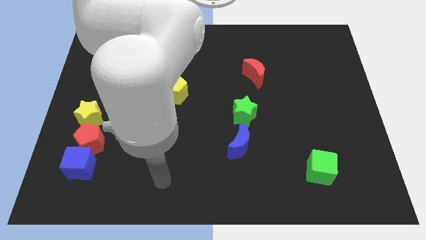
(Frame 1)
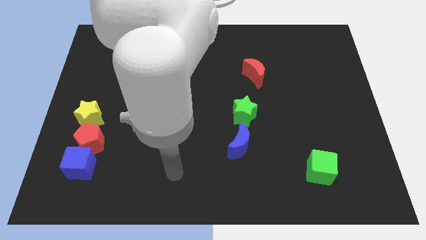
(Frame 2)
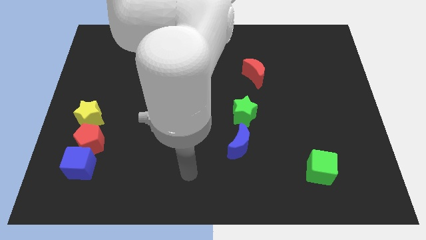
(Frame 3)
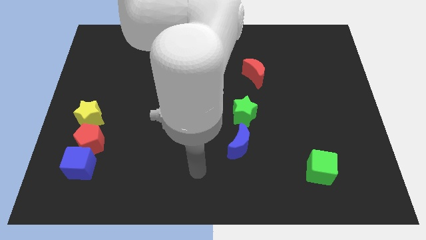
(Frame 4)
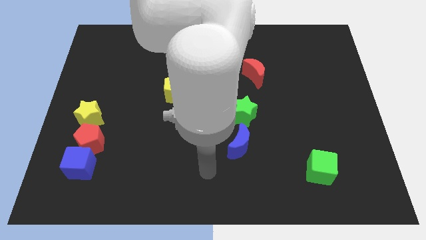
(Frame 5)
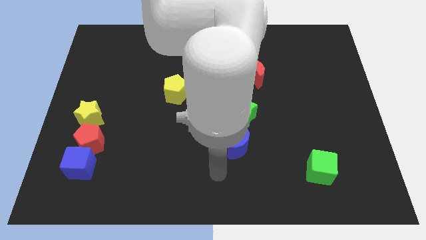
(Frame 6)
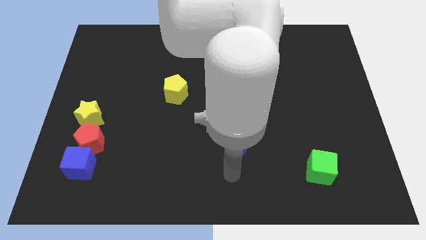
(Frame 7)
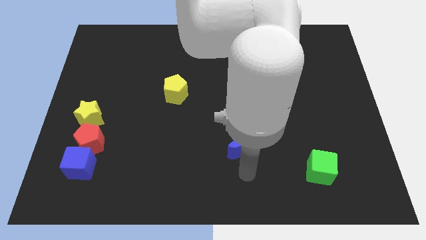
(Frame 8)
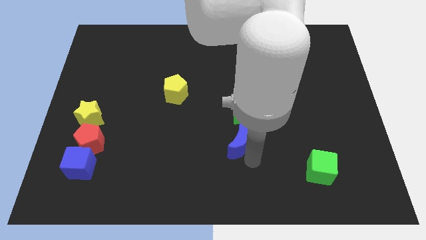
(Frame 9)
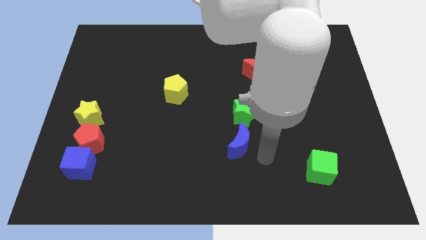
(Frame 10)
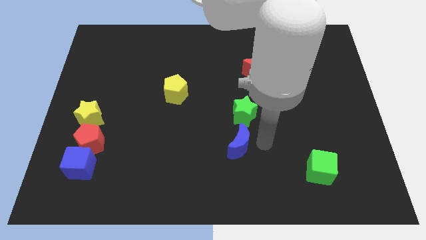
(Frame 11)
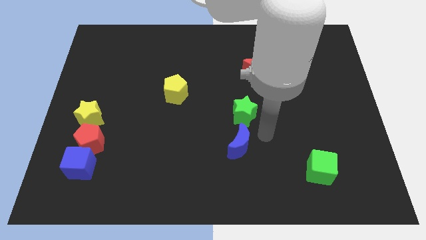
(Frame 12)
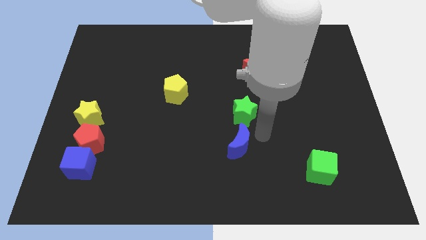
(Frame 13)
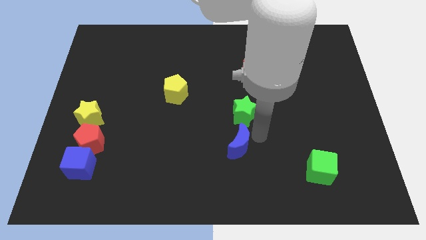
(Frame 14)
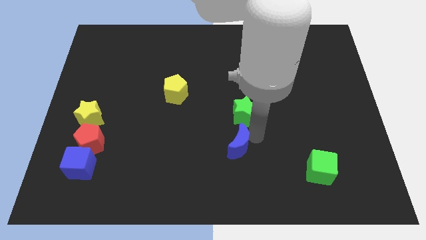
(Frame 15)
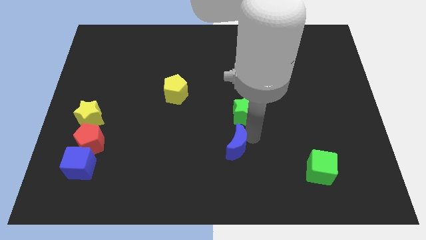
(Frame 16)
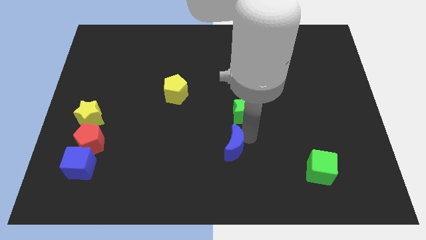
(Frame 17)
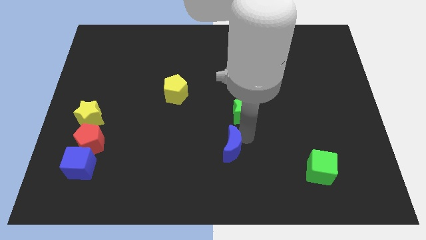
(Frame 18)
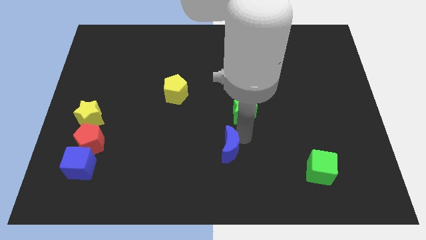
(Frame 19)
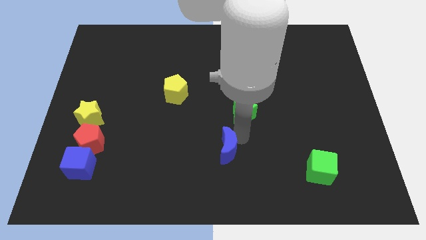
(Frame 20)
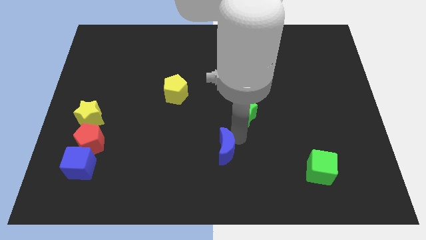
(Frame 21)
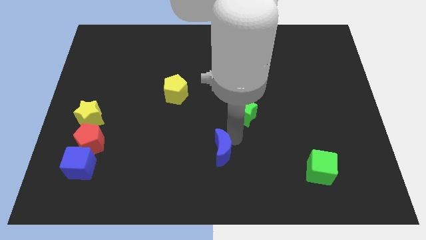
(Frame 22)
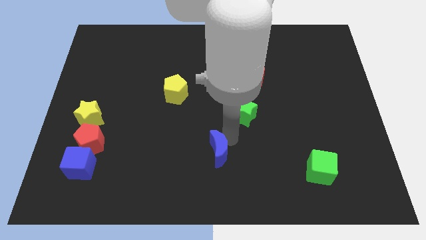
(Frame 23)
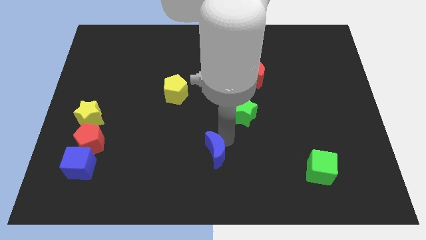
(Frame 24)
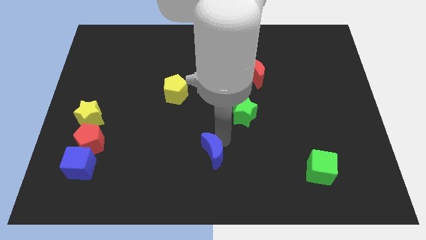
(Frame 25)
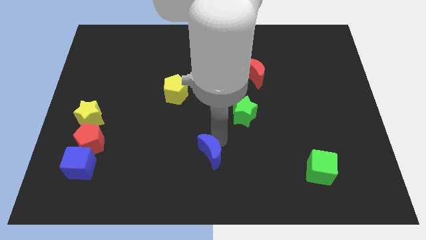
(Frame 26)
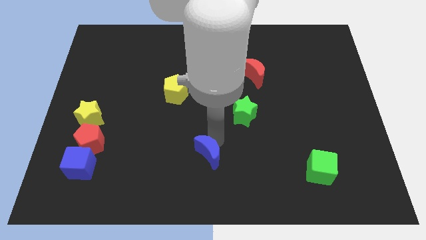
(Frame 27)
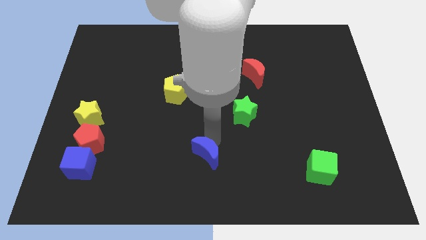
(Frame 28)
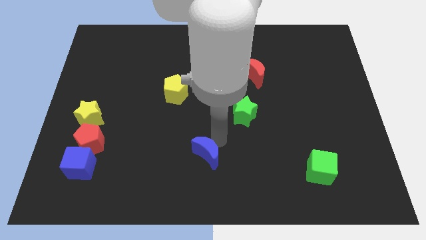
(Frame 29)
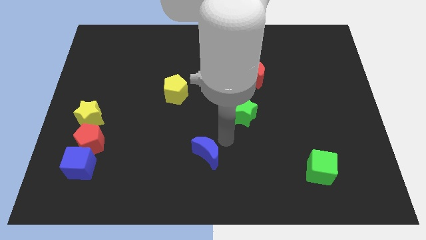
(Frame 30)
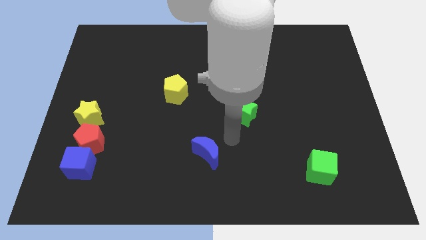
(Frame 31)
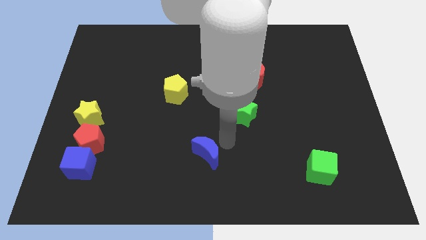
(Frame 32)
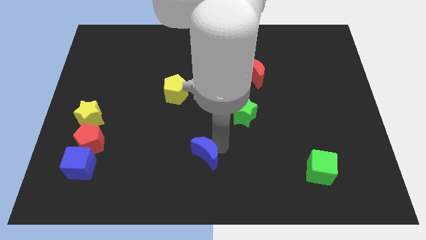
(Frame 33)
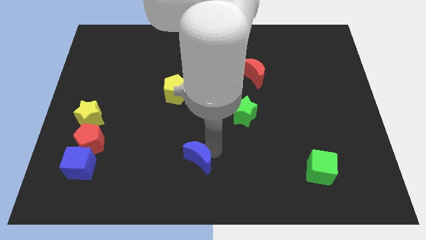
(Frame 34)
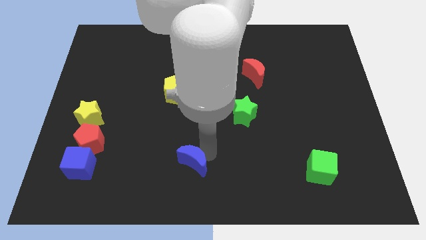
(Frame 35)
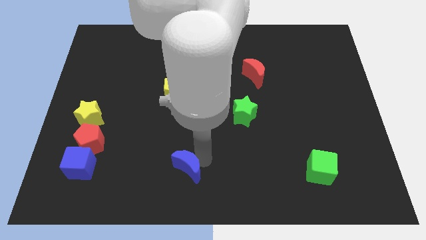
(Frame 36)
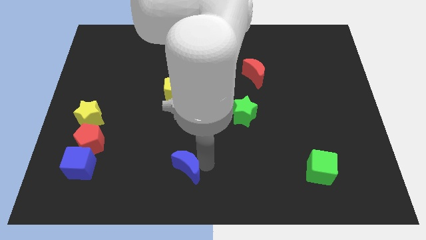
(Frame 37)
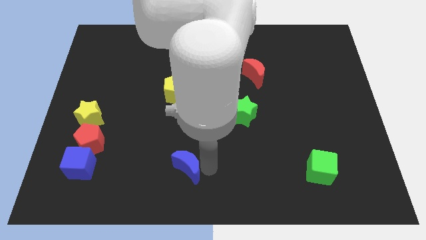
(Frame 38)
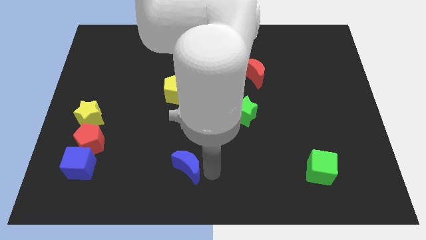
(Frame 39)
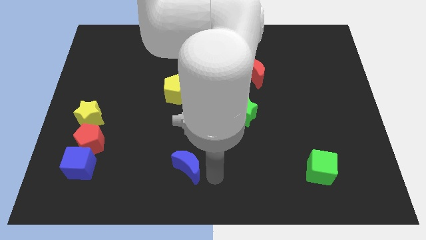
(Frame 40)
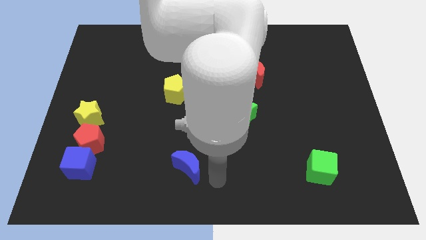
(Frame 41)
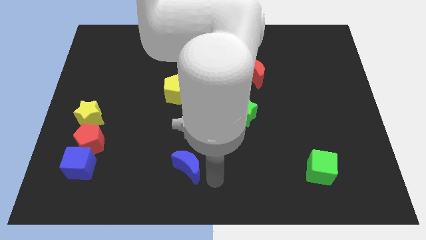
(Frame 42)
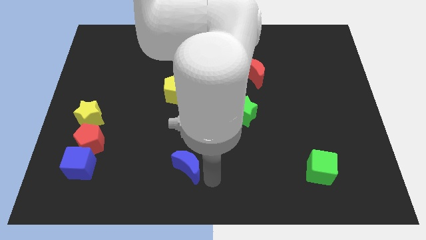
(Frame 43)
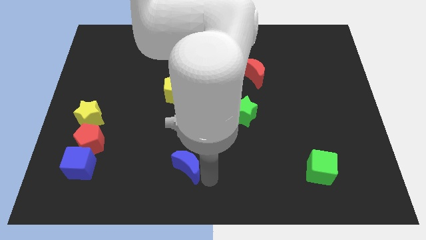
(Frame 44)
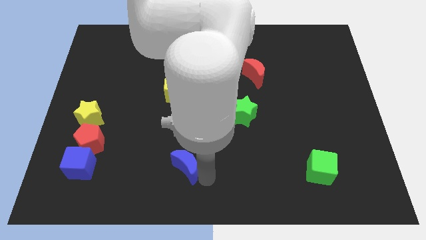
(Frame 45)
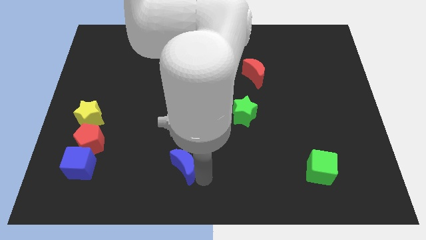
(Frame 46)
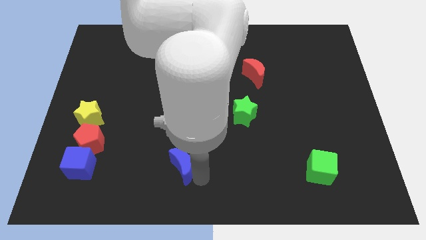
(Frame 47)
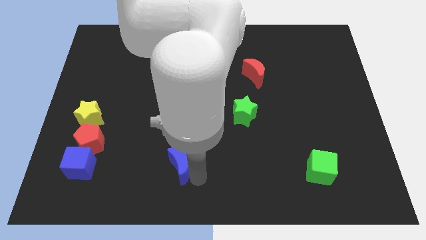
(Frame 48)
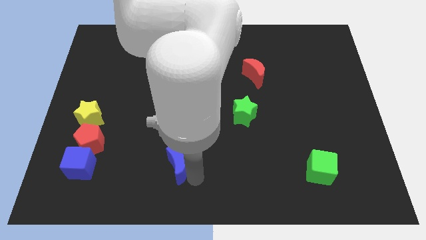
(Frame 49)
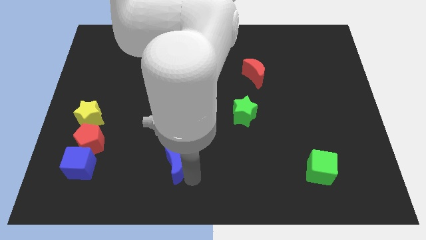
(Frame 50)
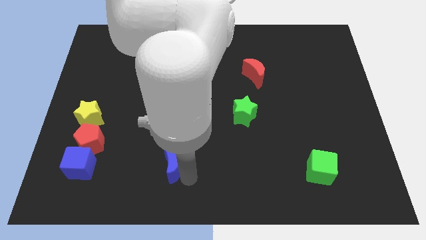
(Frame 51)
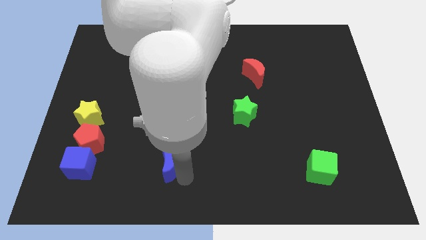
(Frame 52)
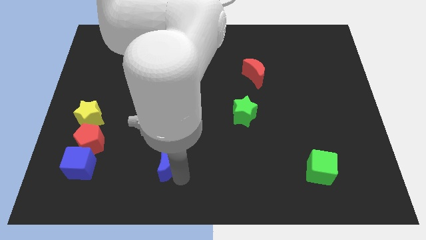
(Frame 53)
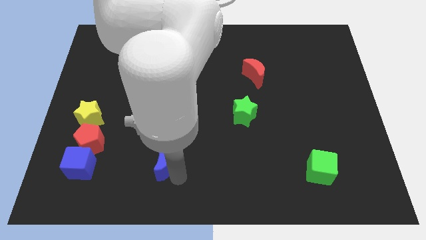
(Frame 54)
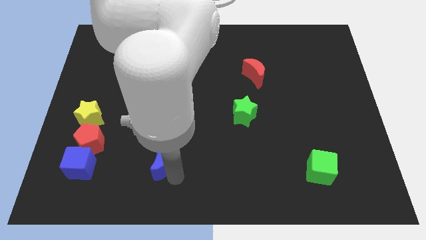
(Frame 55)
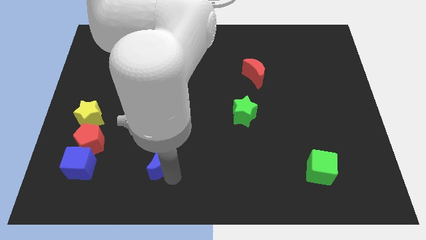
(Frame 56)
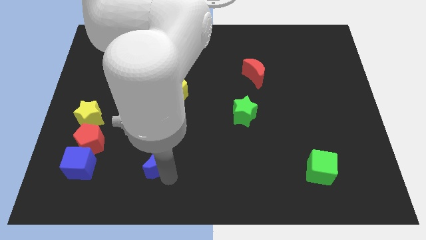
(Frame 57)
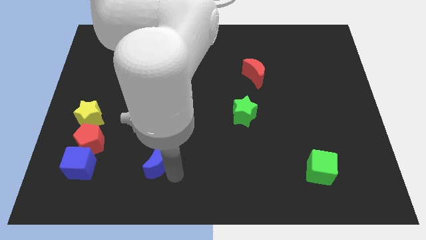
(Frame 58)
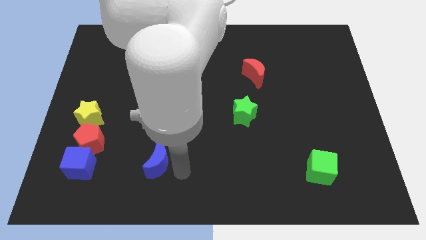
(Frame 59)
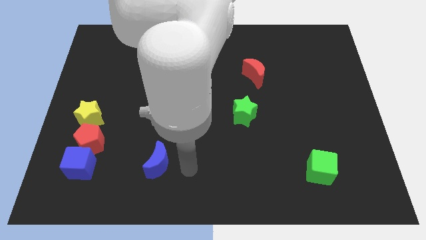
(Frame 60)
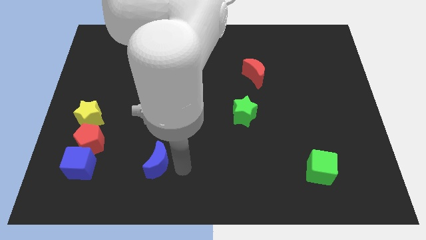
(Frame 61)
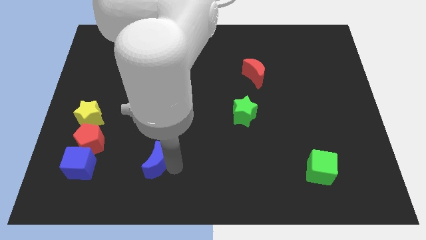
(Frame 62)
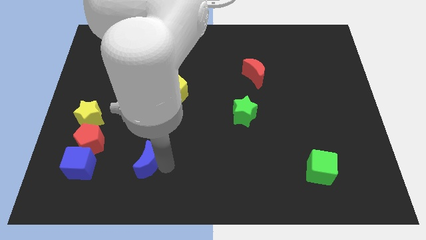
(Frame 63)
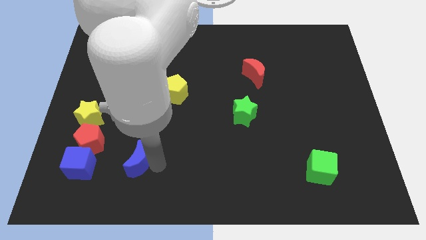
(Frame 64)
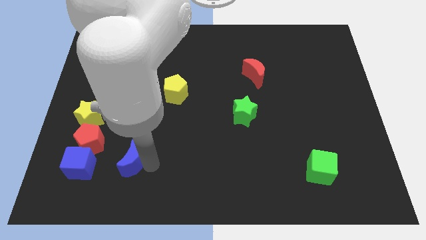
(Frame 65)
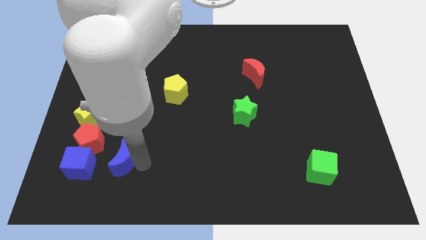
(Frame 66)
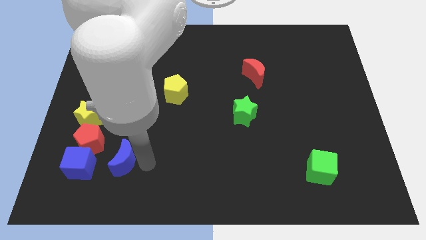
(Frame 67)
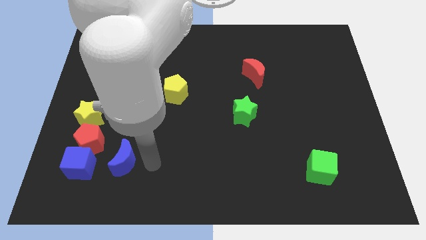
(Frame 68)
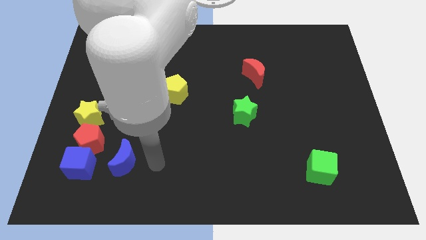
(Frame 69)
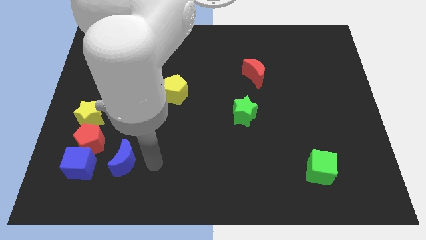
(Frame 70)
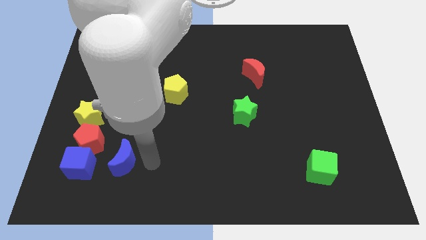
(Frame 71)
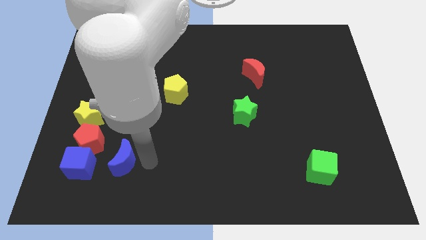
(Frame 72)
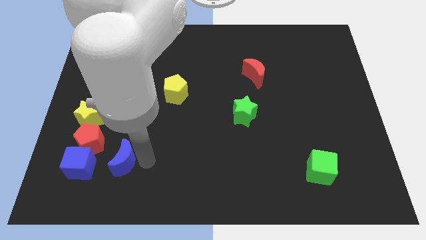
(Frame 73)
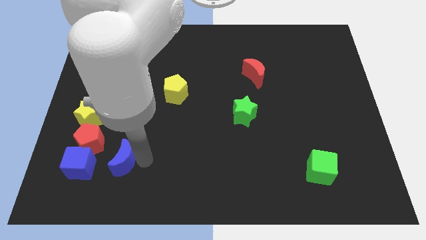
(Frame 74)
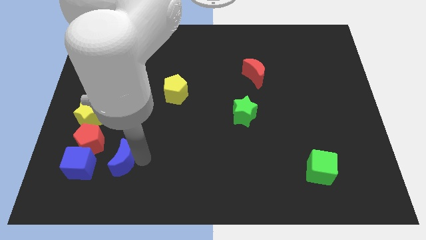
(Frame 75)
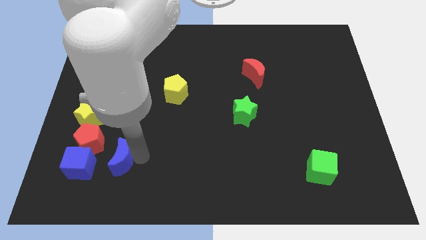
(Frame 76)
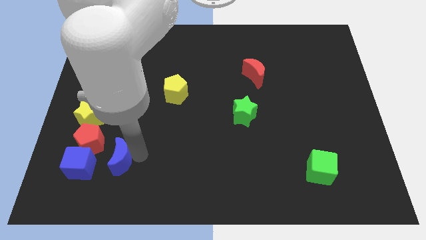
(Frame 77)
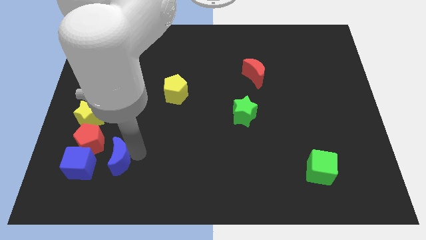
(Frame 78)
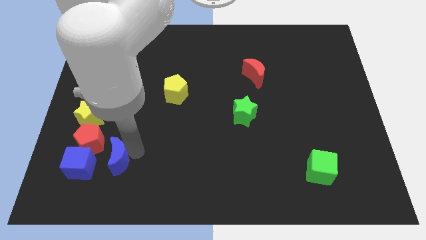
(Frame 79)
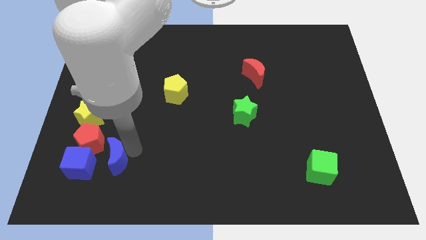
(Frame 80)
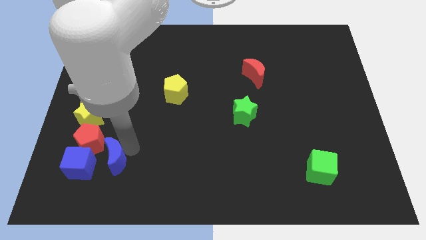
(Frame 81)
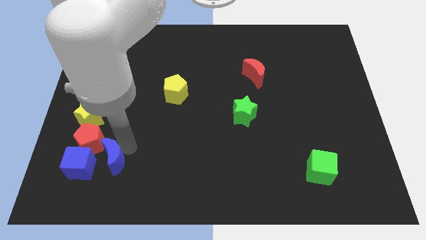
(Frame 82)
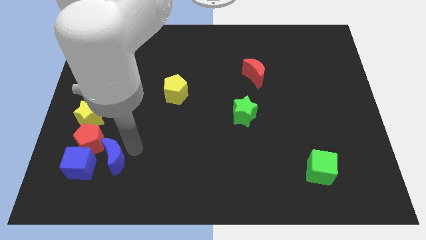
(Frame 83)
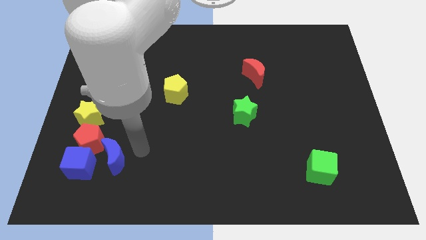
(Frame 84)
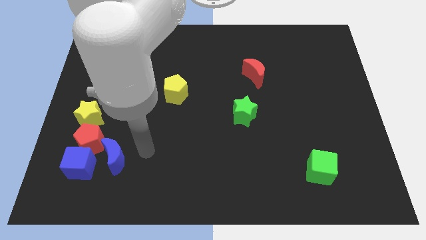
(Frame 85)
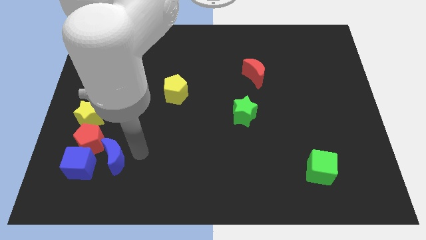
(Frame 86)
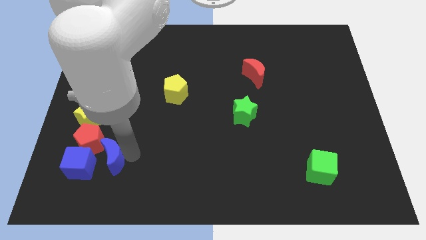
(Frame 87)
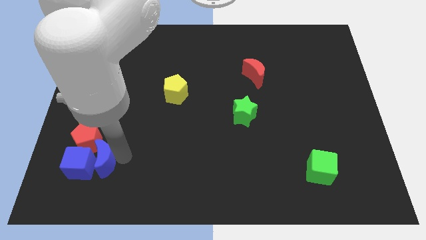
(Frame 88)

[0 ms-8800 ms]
push the blue moon towards the blue cube
